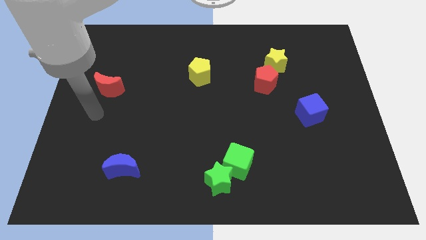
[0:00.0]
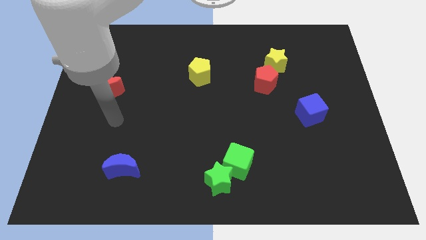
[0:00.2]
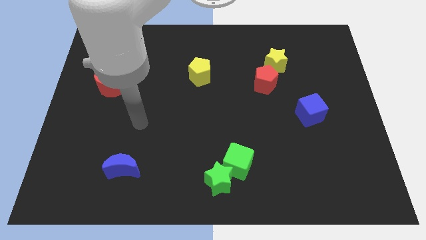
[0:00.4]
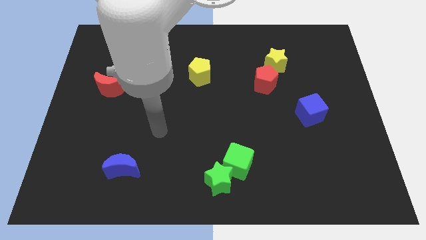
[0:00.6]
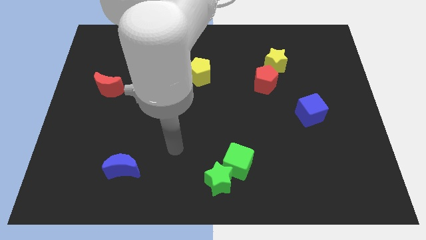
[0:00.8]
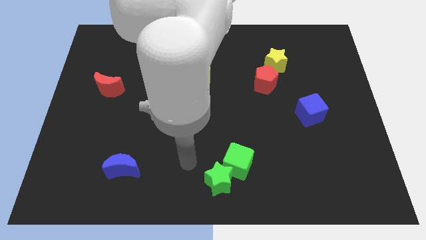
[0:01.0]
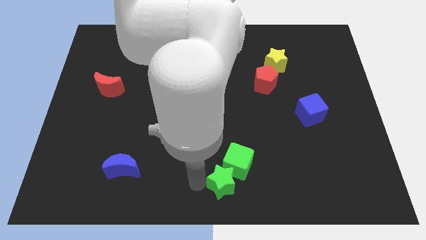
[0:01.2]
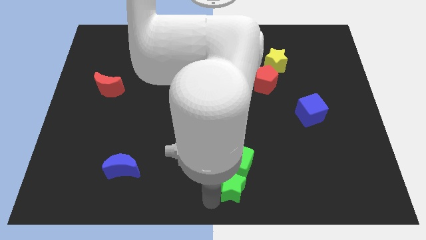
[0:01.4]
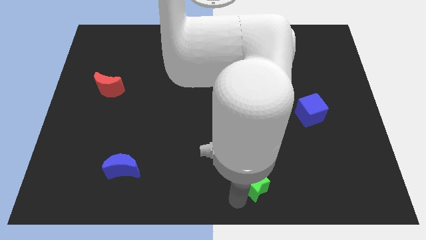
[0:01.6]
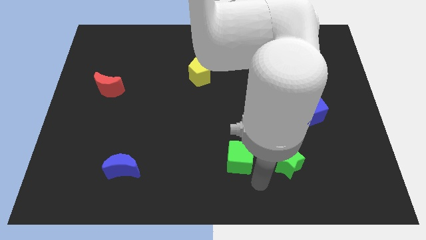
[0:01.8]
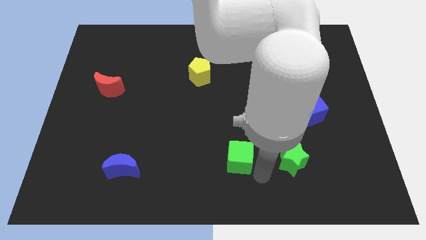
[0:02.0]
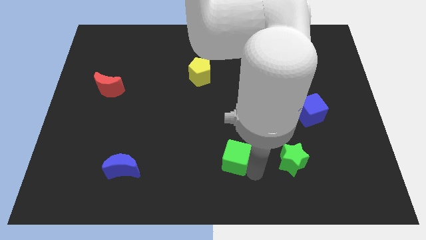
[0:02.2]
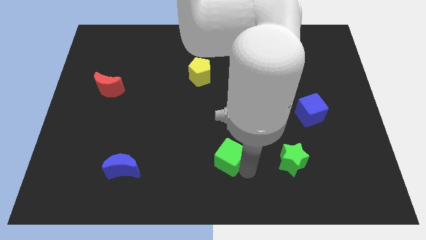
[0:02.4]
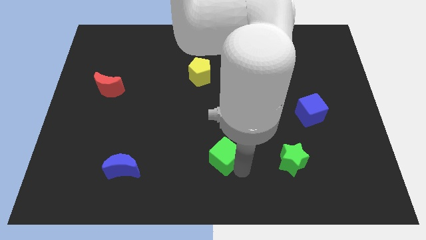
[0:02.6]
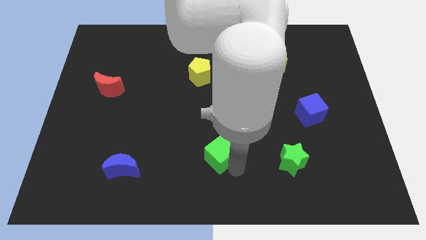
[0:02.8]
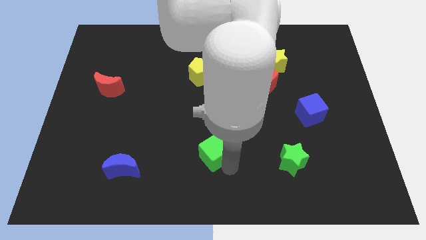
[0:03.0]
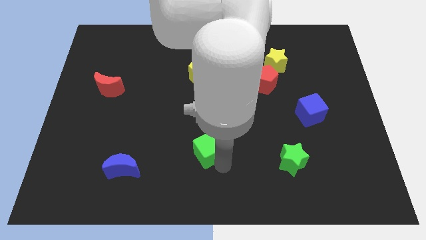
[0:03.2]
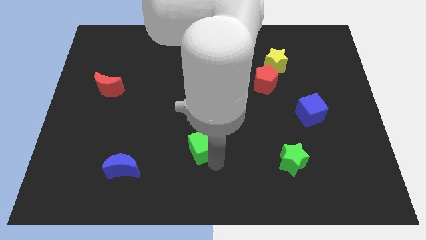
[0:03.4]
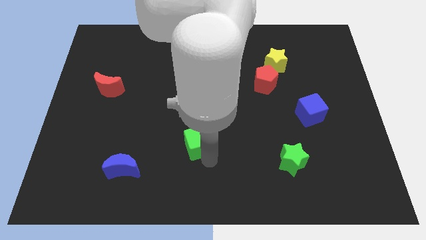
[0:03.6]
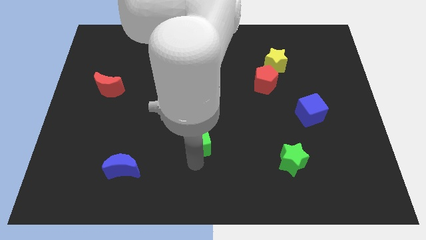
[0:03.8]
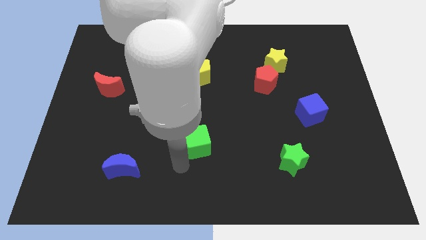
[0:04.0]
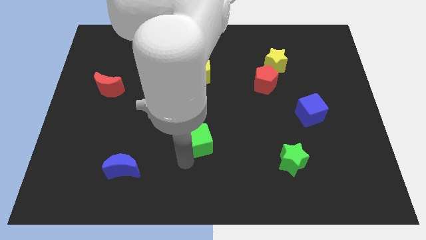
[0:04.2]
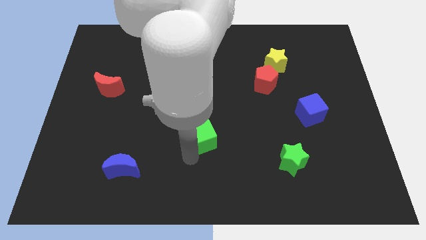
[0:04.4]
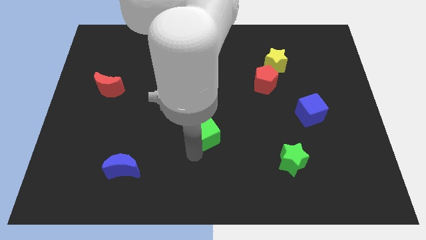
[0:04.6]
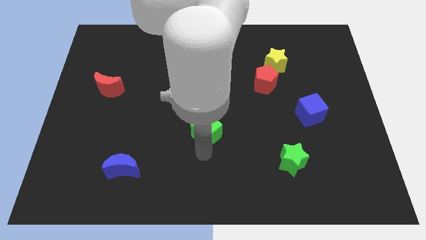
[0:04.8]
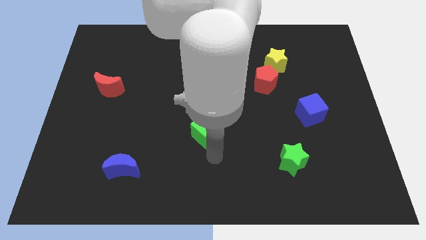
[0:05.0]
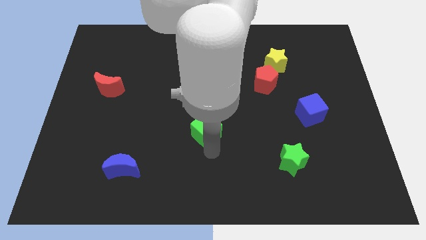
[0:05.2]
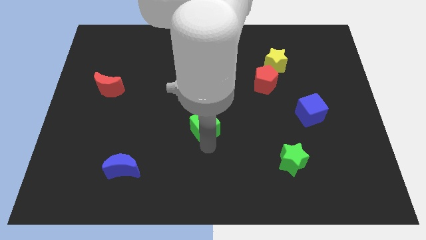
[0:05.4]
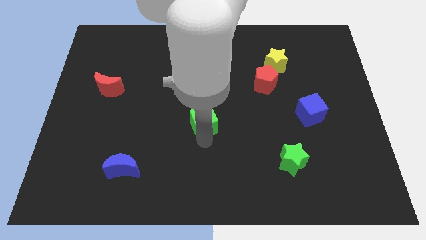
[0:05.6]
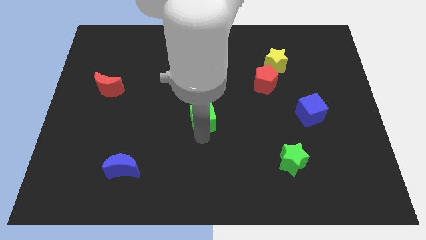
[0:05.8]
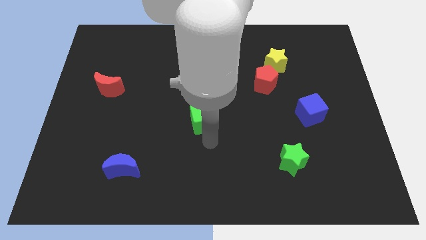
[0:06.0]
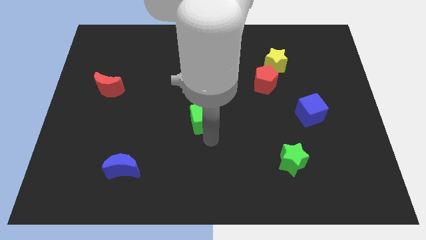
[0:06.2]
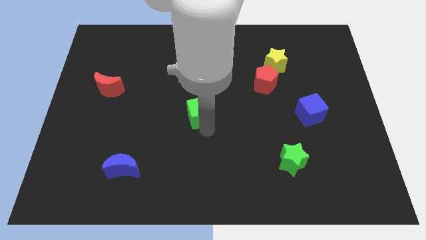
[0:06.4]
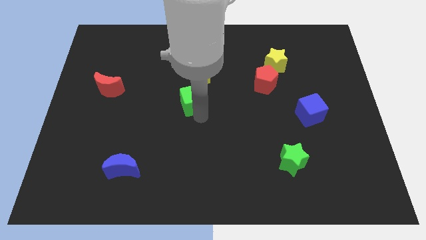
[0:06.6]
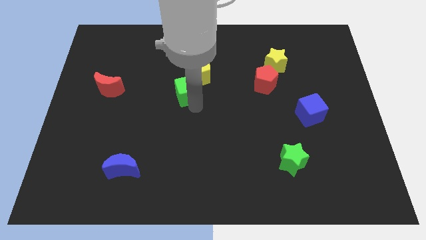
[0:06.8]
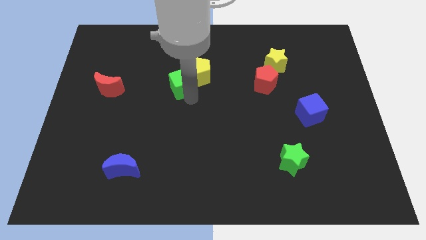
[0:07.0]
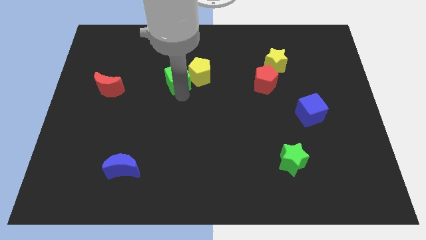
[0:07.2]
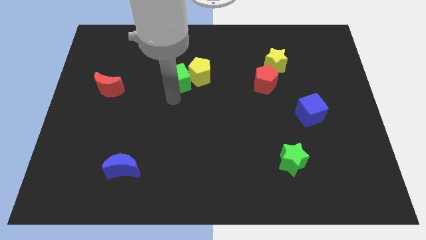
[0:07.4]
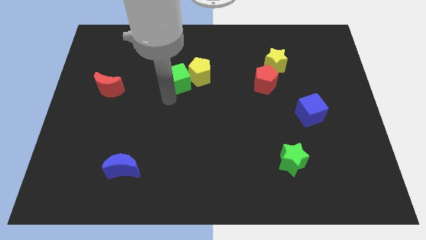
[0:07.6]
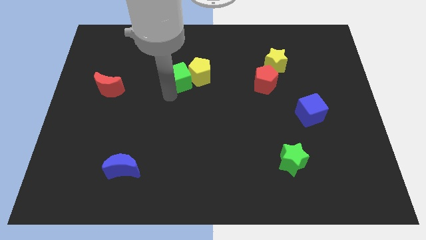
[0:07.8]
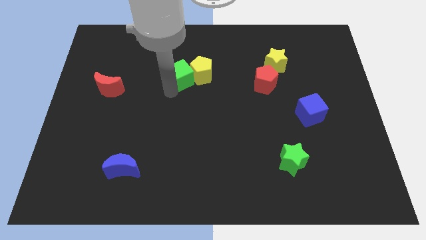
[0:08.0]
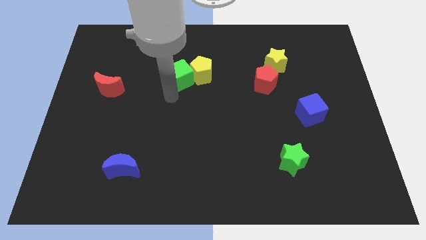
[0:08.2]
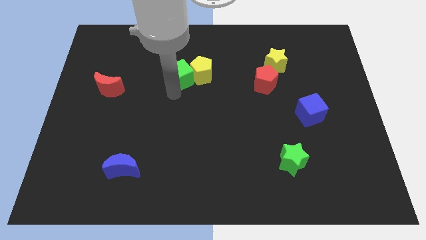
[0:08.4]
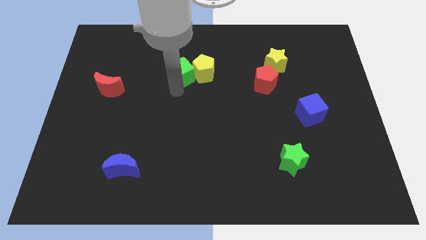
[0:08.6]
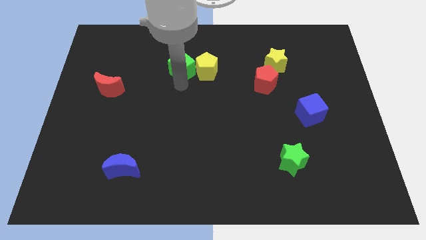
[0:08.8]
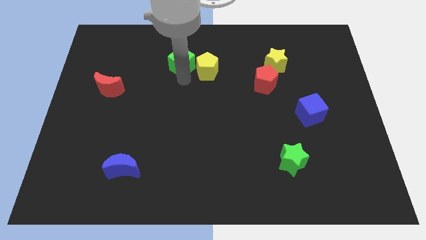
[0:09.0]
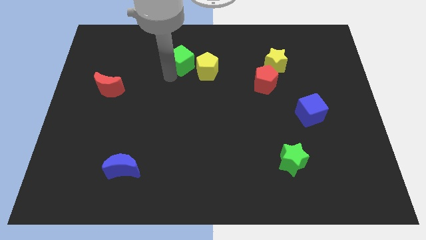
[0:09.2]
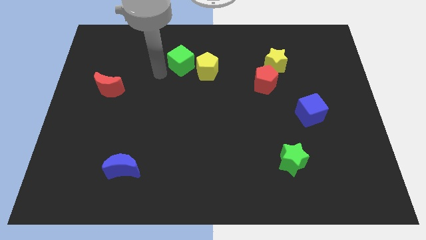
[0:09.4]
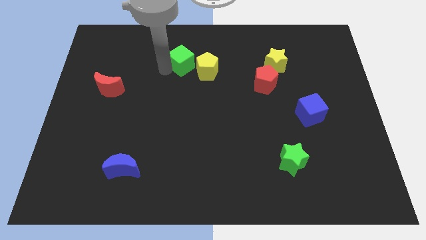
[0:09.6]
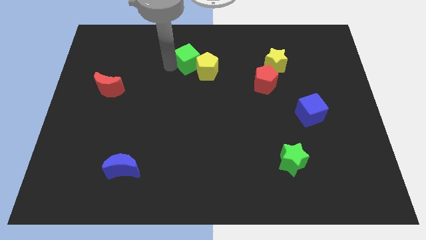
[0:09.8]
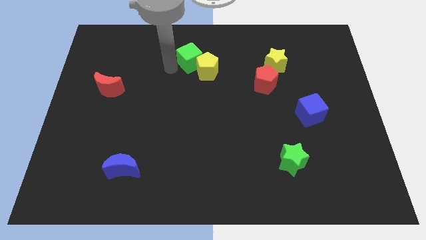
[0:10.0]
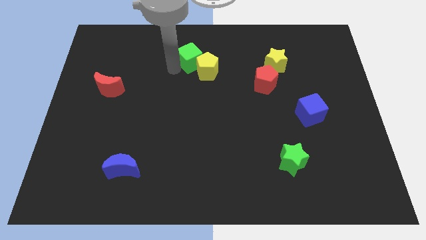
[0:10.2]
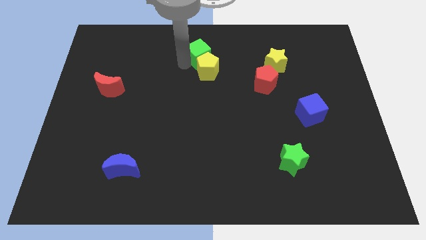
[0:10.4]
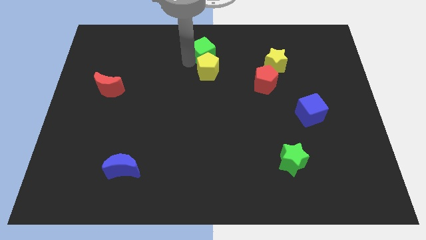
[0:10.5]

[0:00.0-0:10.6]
move the green cube to the top side

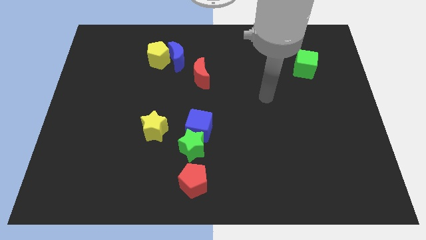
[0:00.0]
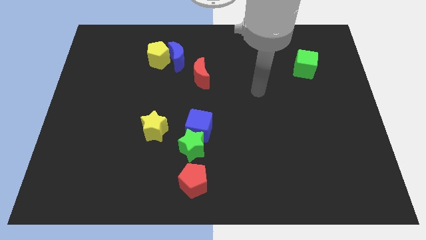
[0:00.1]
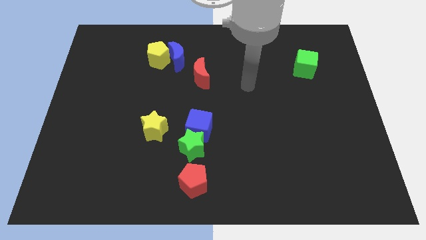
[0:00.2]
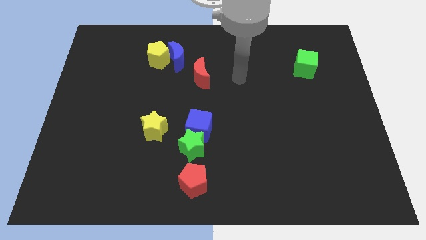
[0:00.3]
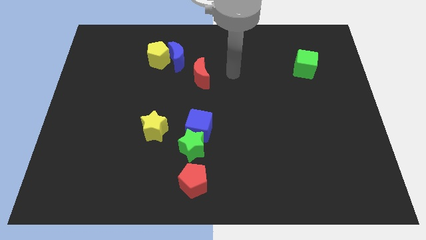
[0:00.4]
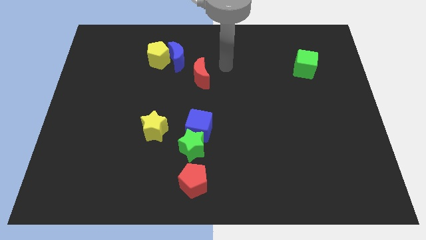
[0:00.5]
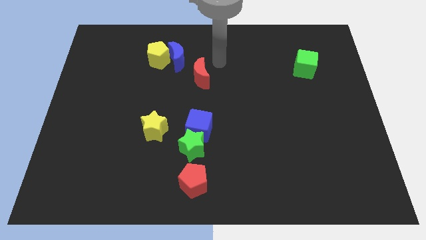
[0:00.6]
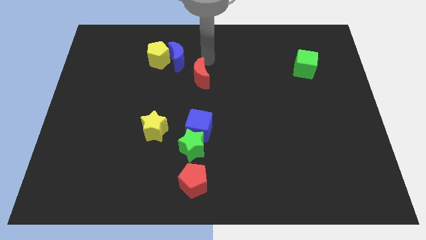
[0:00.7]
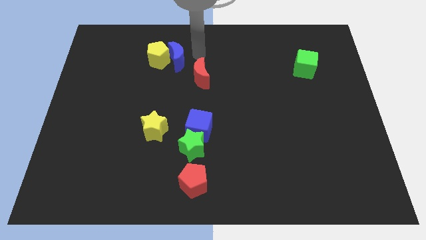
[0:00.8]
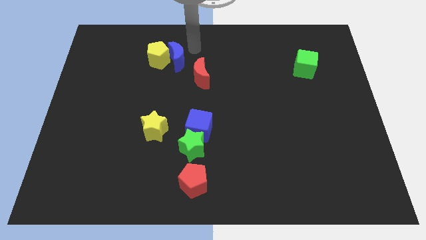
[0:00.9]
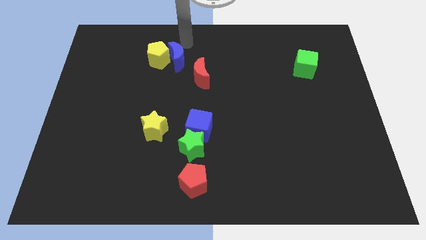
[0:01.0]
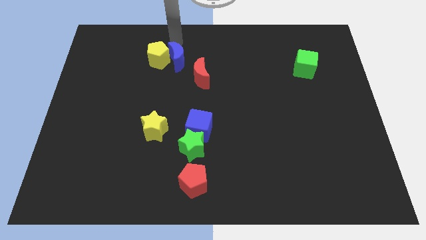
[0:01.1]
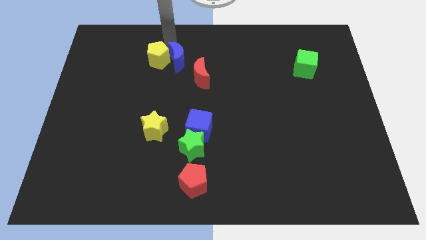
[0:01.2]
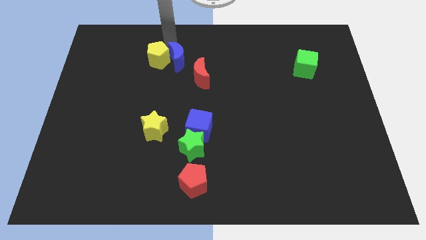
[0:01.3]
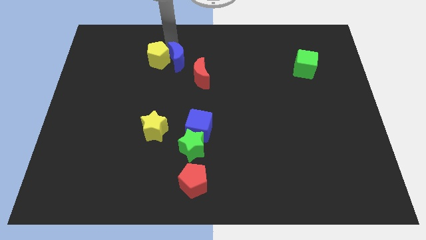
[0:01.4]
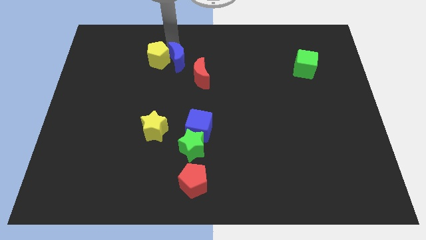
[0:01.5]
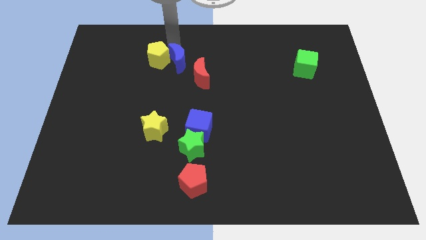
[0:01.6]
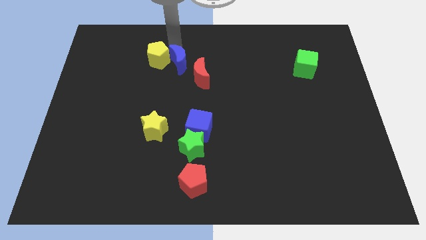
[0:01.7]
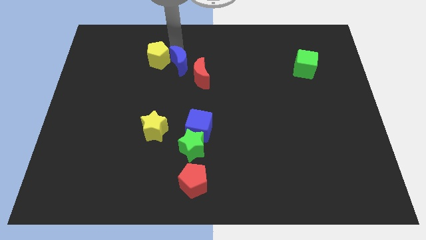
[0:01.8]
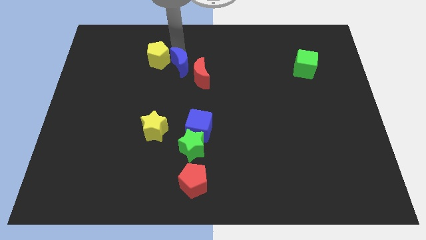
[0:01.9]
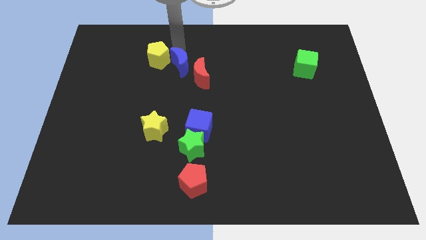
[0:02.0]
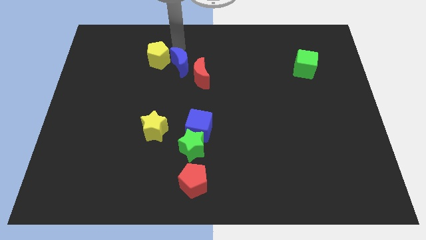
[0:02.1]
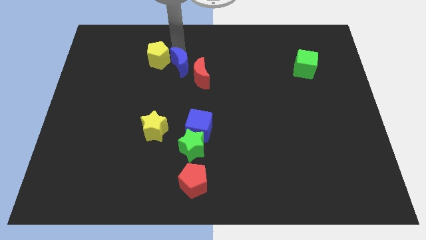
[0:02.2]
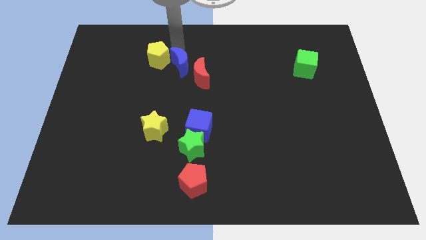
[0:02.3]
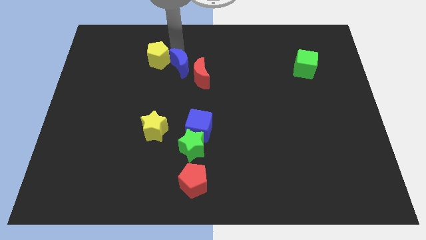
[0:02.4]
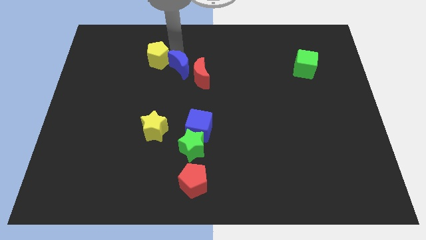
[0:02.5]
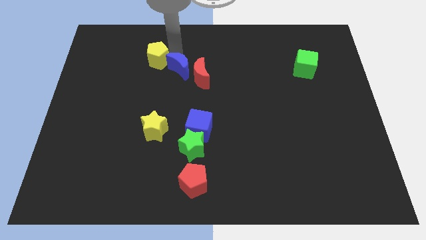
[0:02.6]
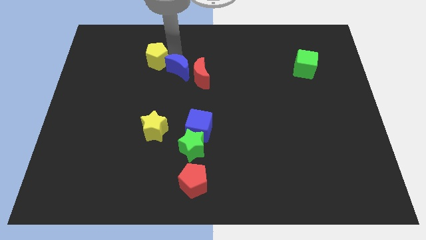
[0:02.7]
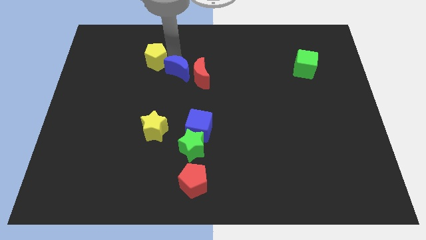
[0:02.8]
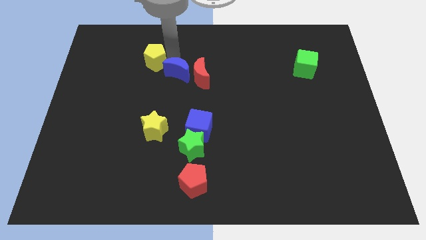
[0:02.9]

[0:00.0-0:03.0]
put the blue moon to the center
